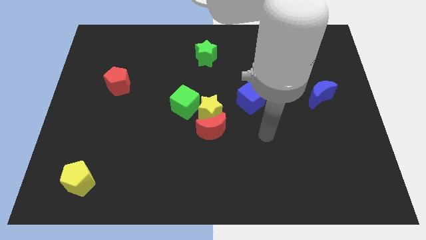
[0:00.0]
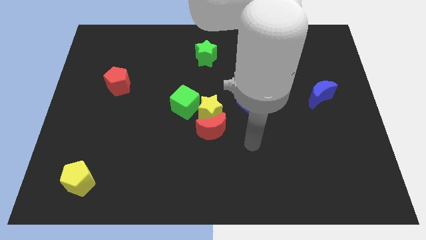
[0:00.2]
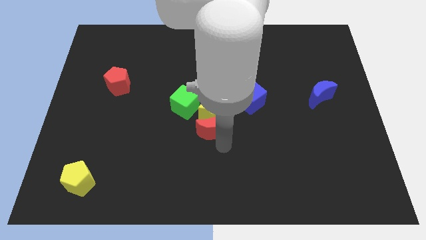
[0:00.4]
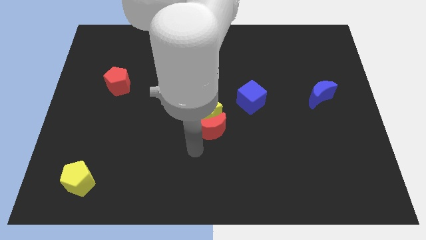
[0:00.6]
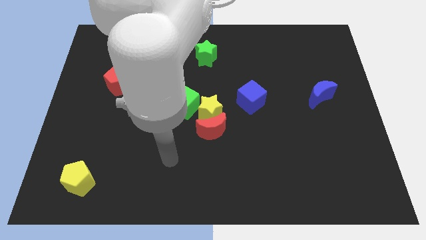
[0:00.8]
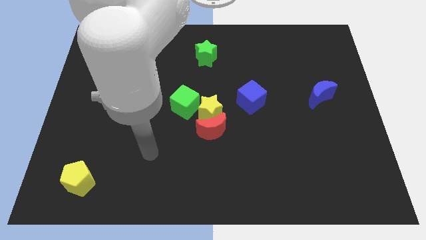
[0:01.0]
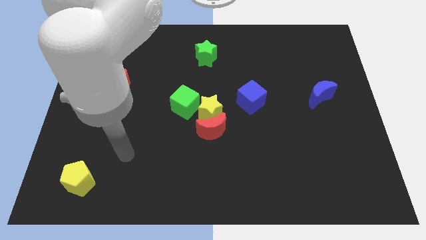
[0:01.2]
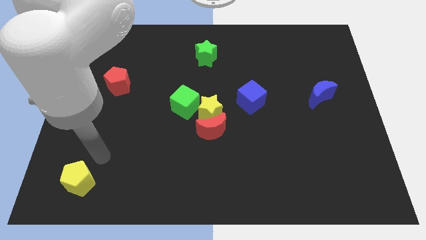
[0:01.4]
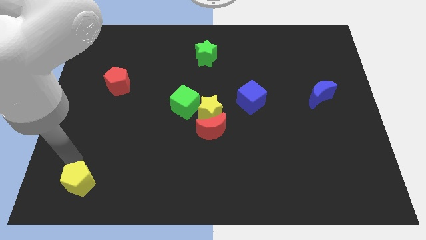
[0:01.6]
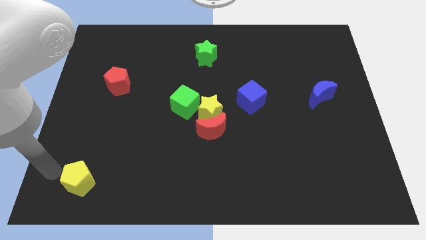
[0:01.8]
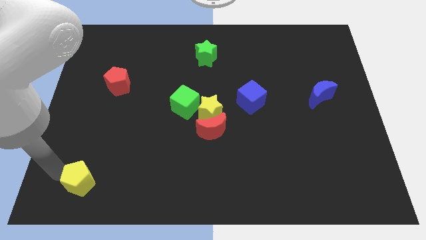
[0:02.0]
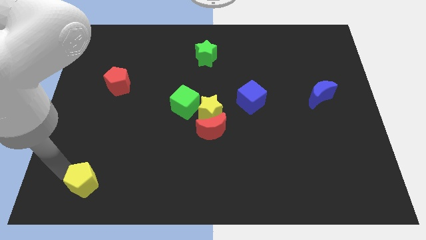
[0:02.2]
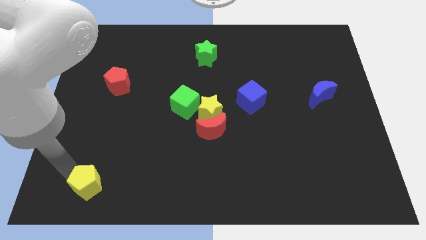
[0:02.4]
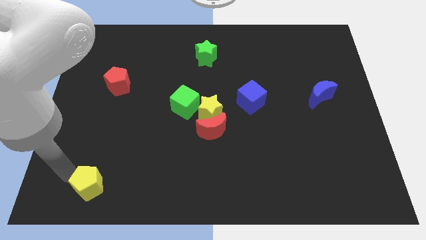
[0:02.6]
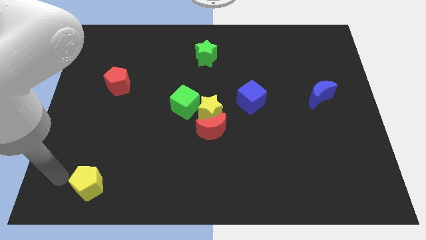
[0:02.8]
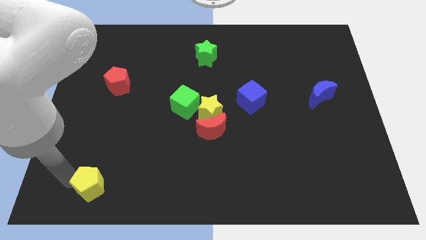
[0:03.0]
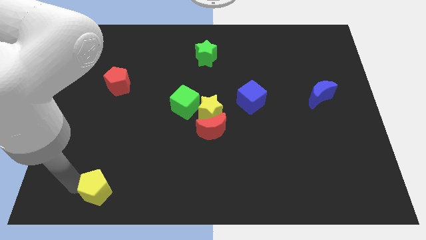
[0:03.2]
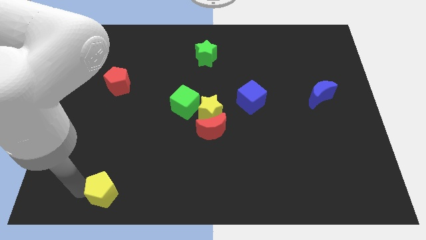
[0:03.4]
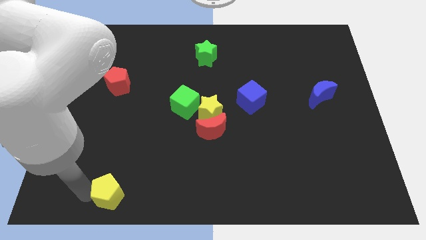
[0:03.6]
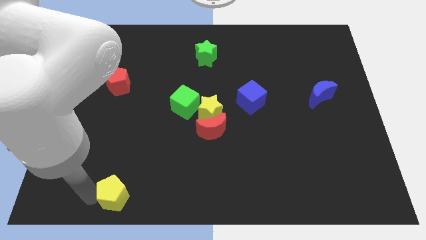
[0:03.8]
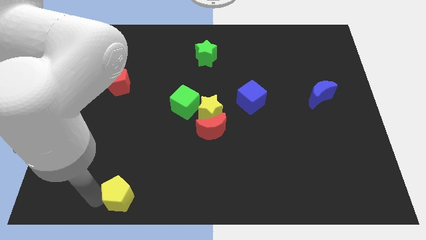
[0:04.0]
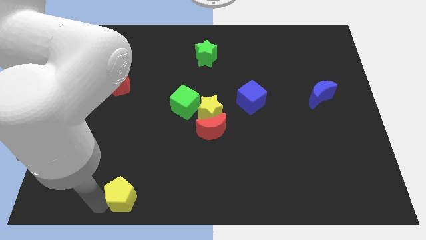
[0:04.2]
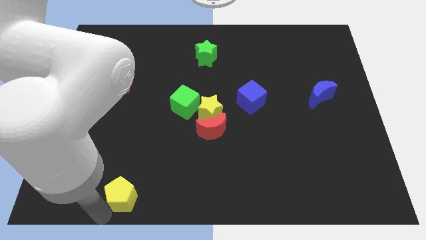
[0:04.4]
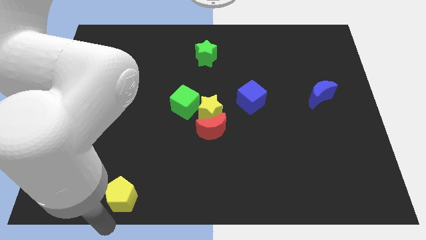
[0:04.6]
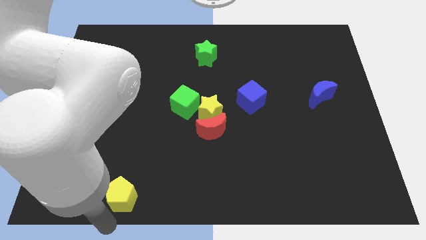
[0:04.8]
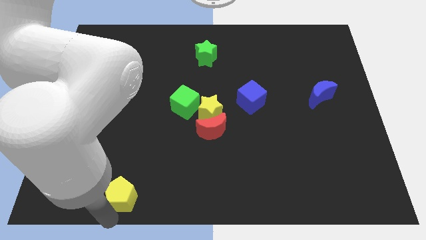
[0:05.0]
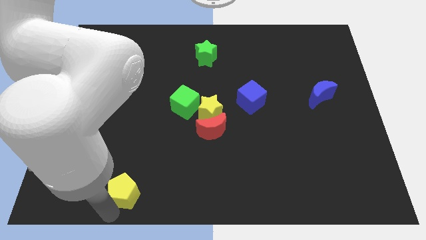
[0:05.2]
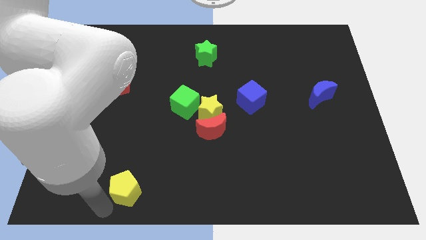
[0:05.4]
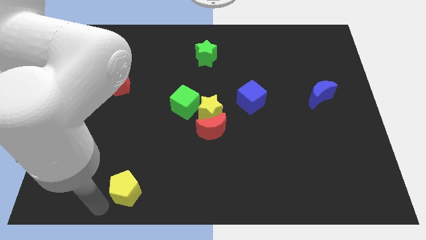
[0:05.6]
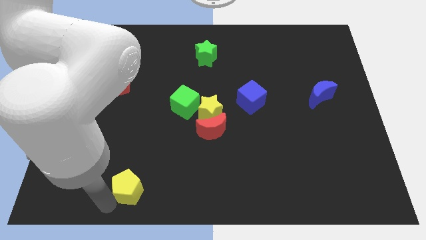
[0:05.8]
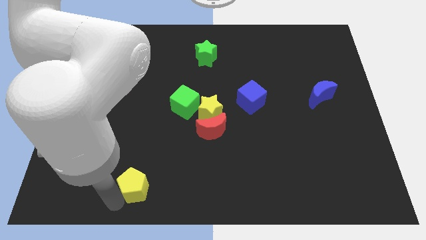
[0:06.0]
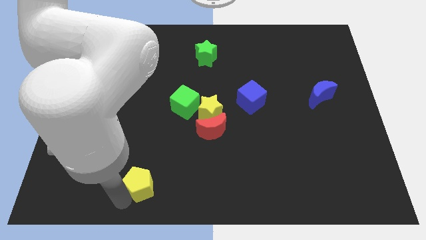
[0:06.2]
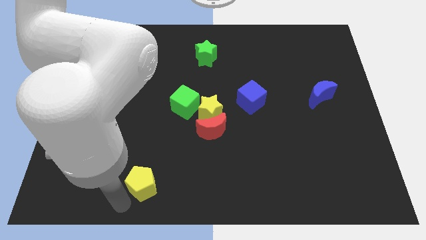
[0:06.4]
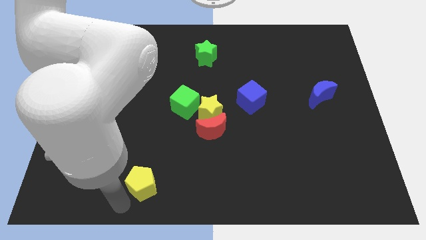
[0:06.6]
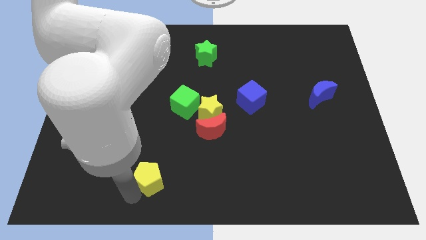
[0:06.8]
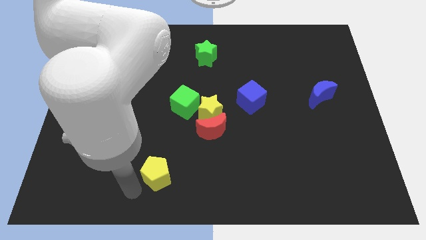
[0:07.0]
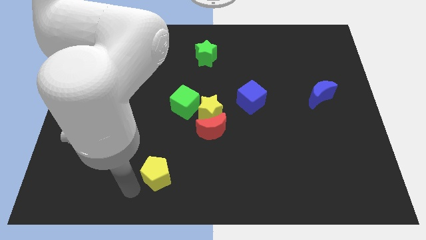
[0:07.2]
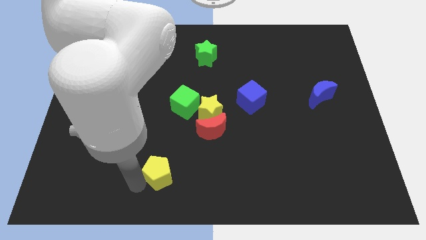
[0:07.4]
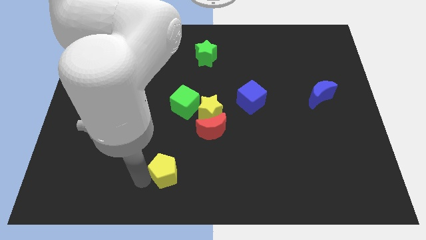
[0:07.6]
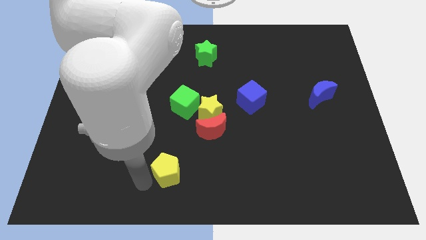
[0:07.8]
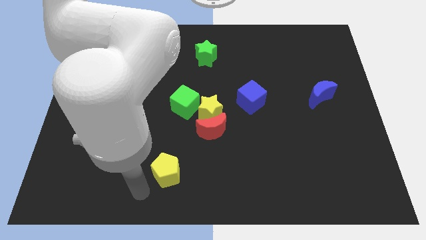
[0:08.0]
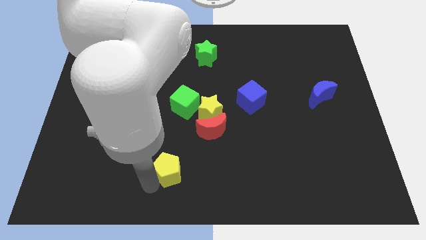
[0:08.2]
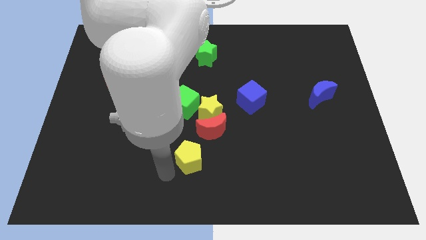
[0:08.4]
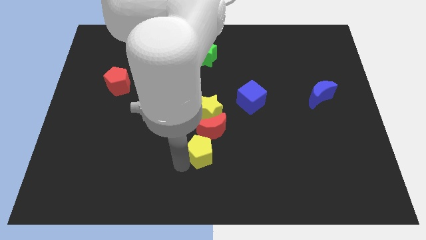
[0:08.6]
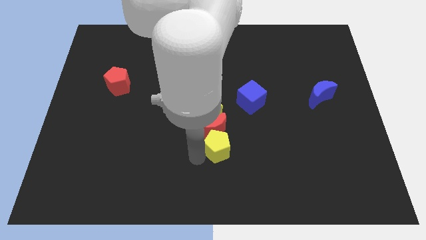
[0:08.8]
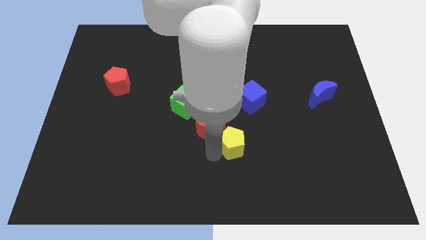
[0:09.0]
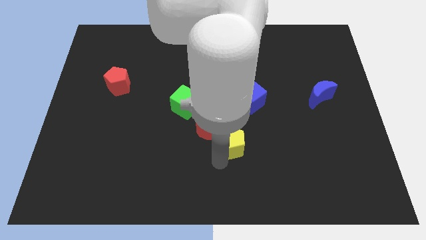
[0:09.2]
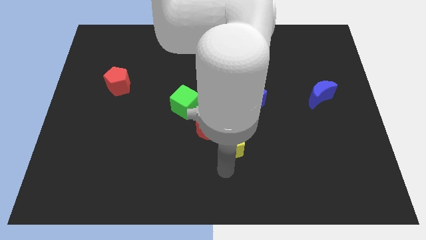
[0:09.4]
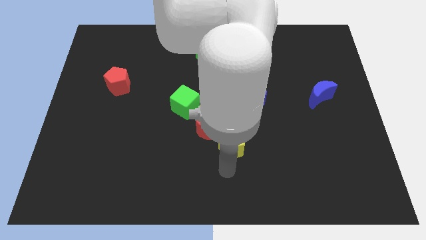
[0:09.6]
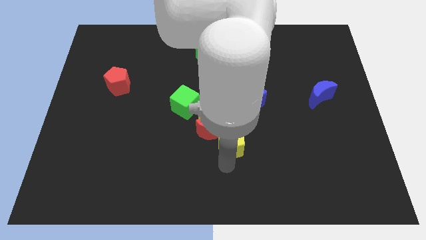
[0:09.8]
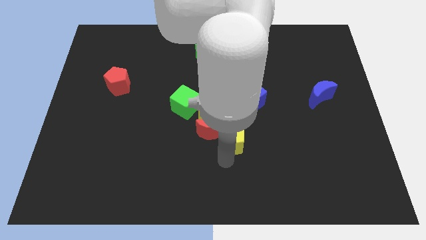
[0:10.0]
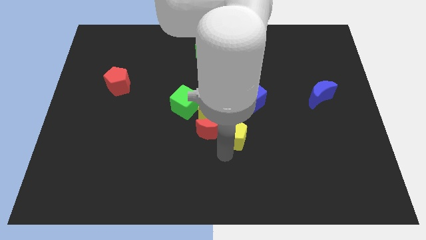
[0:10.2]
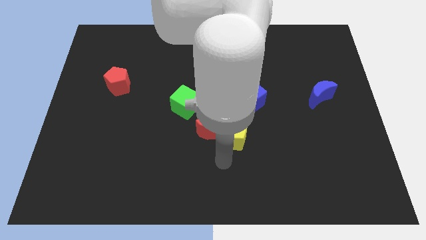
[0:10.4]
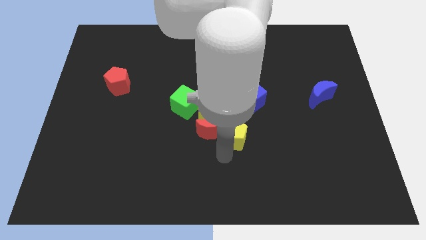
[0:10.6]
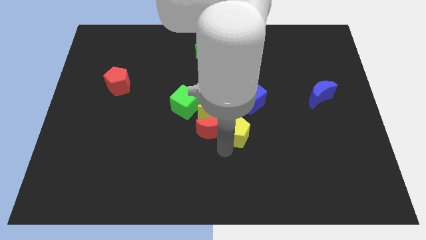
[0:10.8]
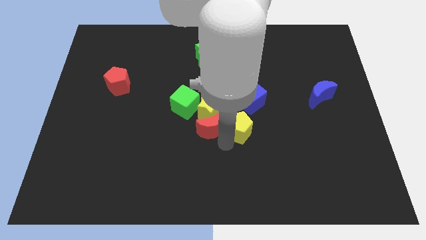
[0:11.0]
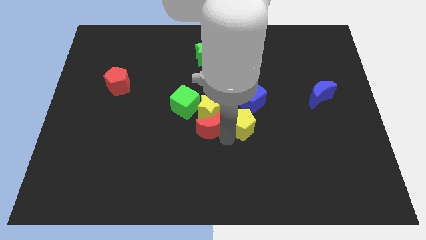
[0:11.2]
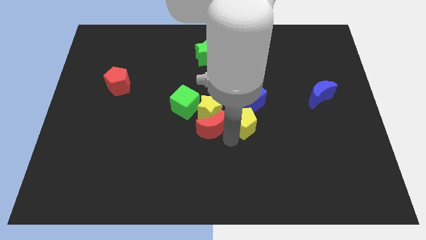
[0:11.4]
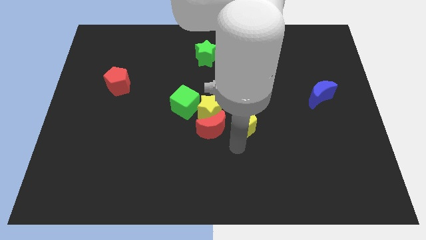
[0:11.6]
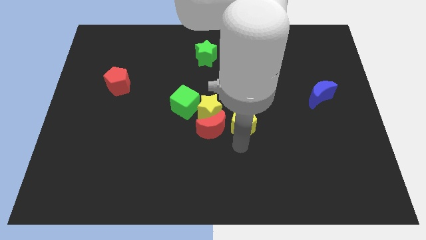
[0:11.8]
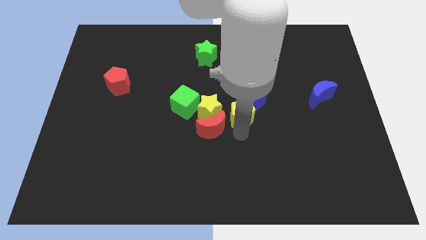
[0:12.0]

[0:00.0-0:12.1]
put the yellow pentagon next to the blue cube
